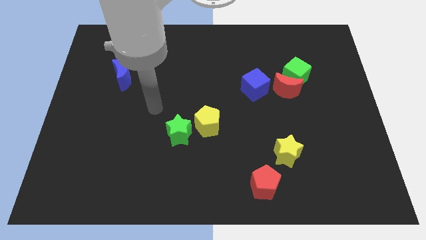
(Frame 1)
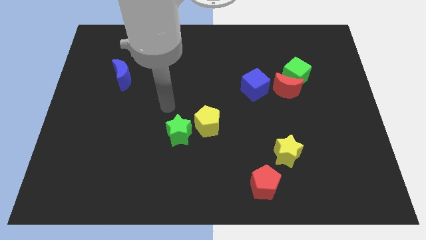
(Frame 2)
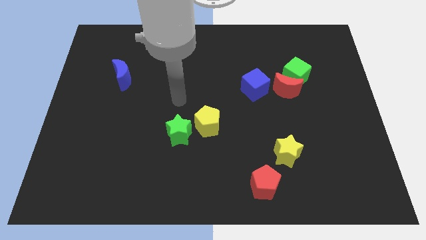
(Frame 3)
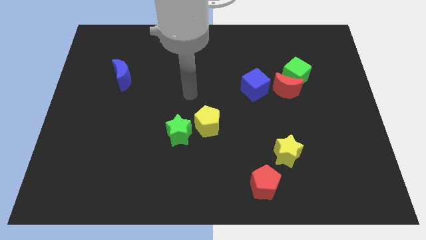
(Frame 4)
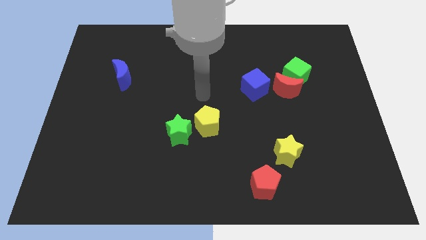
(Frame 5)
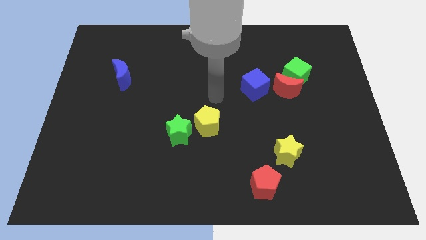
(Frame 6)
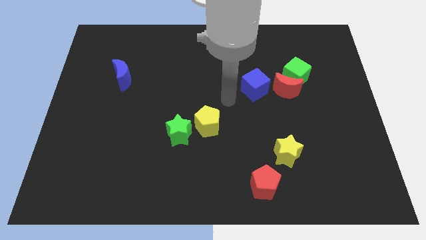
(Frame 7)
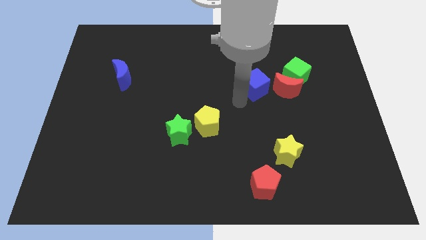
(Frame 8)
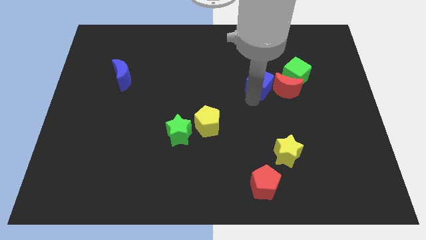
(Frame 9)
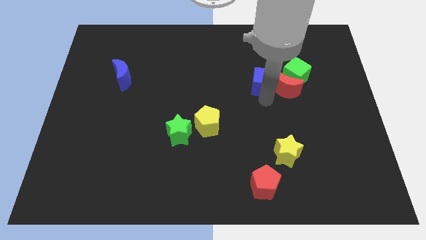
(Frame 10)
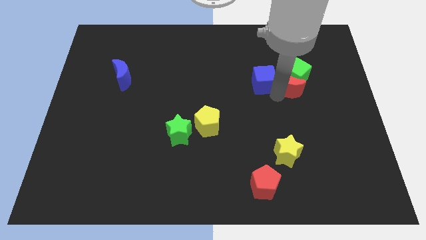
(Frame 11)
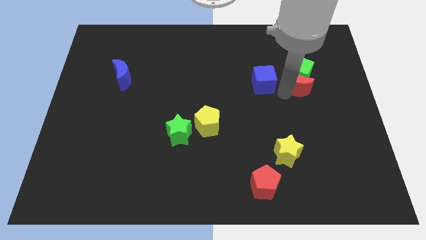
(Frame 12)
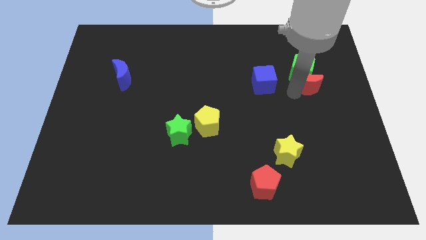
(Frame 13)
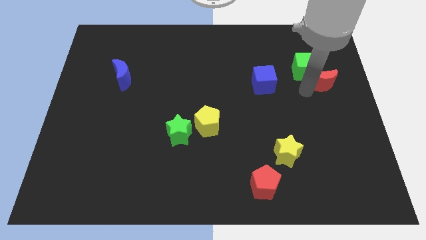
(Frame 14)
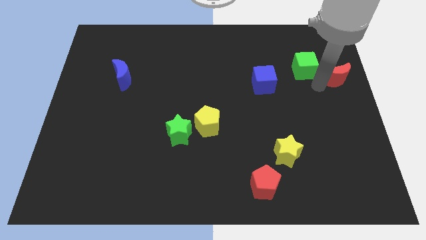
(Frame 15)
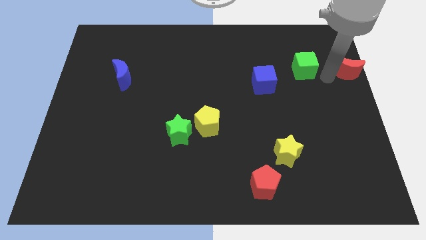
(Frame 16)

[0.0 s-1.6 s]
separate the green cube from the red moon

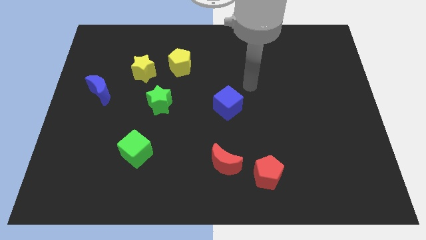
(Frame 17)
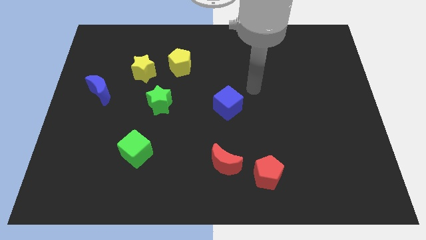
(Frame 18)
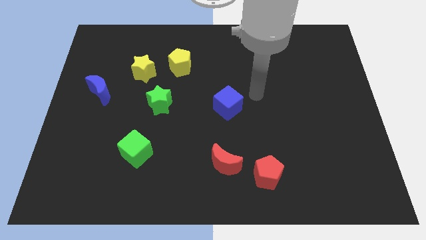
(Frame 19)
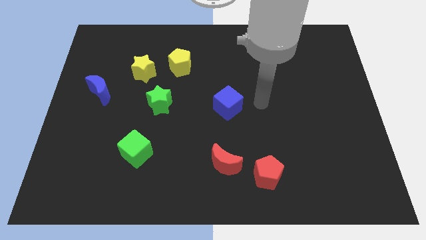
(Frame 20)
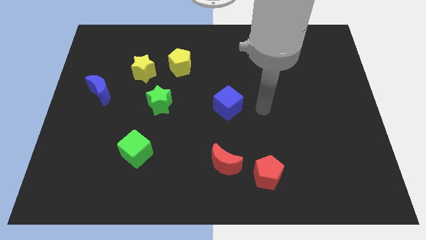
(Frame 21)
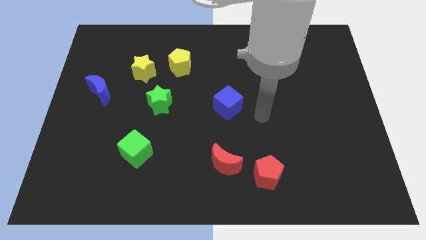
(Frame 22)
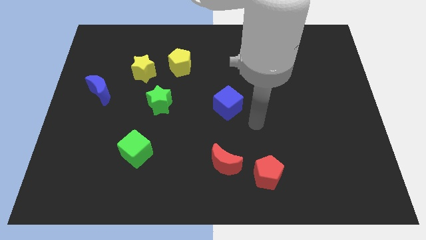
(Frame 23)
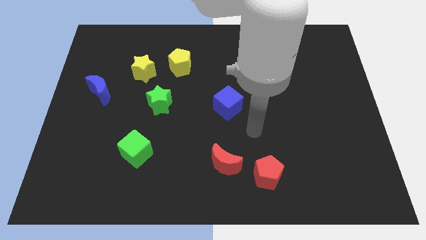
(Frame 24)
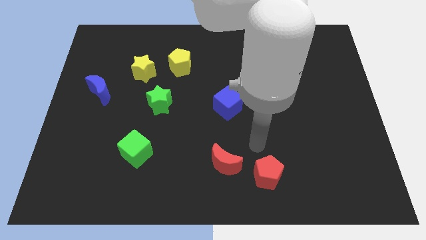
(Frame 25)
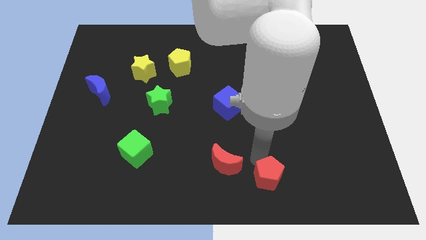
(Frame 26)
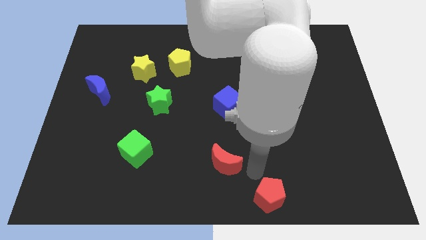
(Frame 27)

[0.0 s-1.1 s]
move the red moon away from the red pentagon

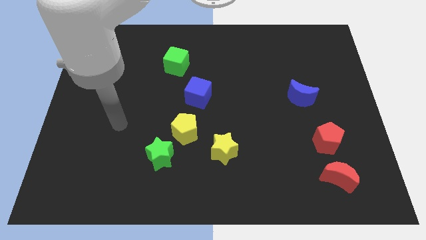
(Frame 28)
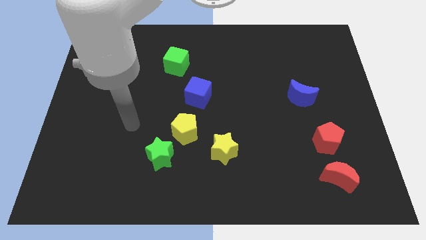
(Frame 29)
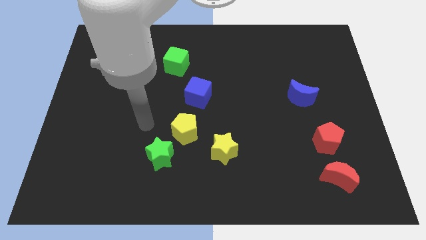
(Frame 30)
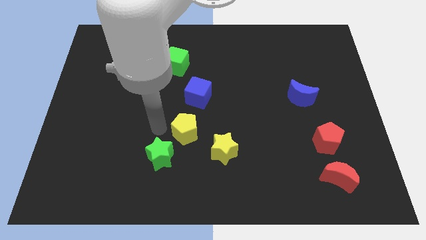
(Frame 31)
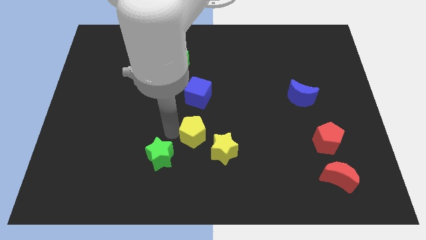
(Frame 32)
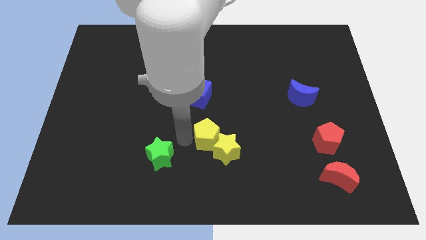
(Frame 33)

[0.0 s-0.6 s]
move the green star away from the yellow pentagon

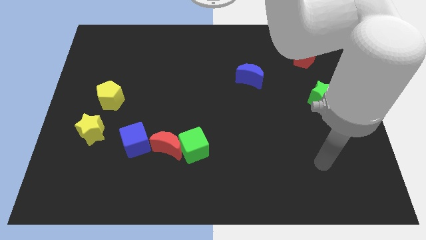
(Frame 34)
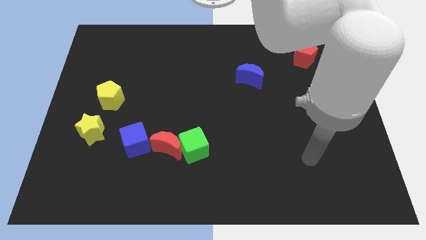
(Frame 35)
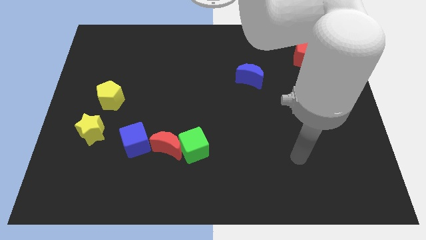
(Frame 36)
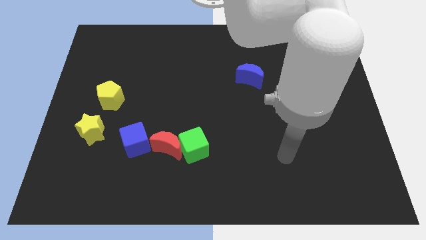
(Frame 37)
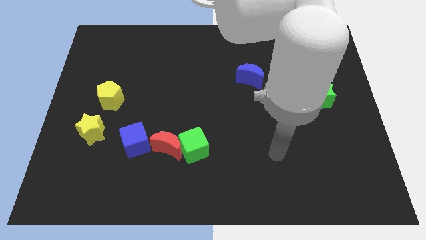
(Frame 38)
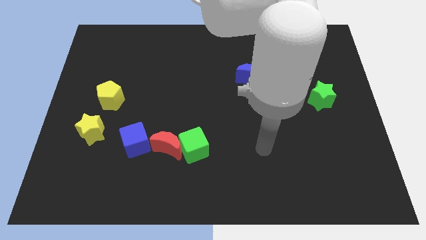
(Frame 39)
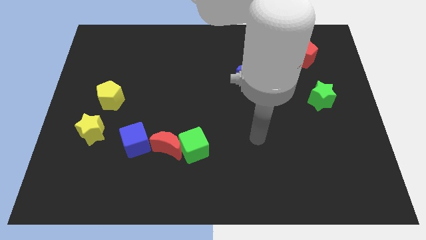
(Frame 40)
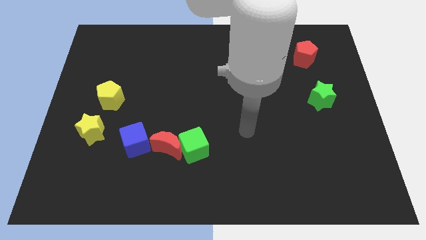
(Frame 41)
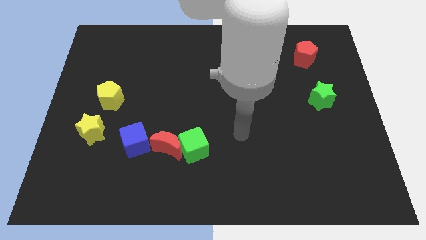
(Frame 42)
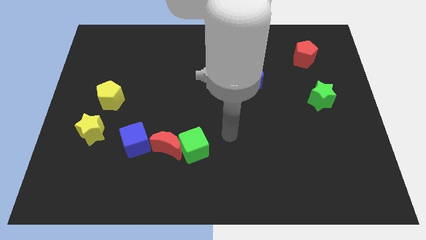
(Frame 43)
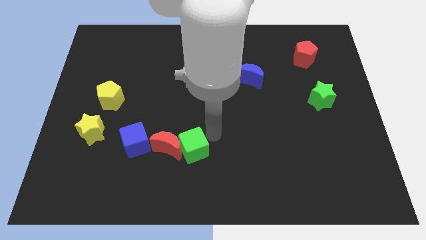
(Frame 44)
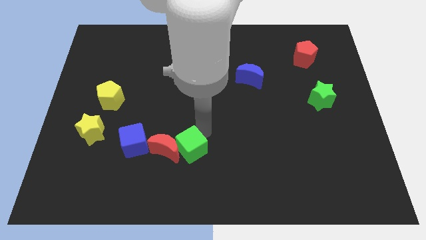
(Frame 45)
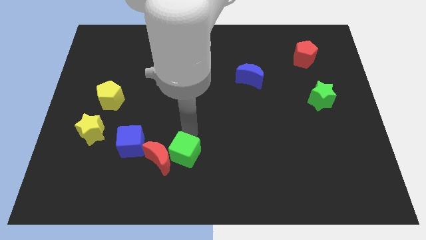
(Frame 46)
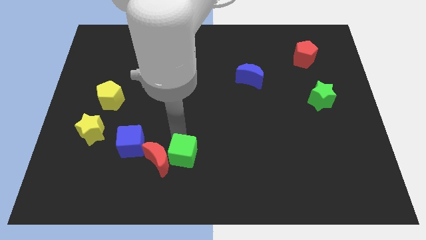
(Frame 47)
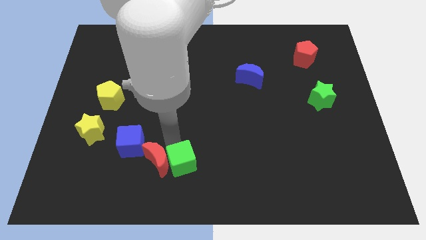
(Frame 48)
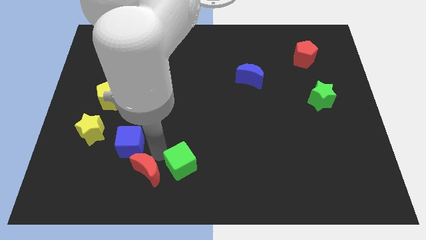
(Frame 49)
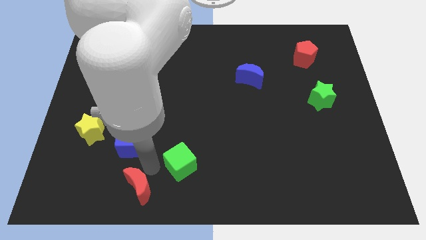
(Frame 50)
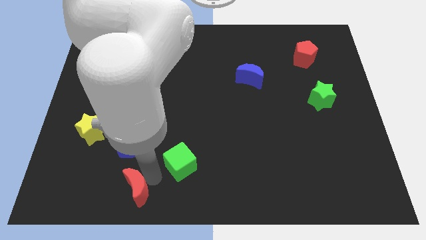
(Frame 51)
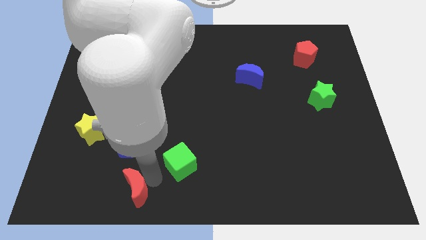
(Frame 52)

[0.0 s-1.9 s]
pull the green cube apart from the red moon

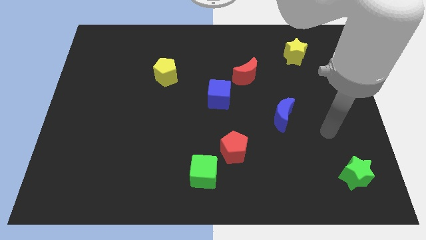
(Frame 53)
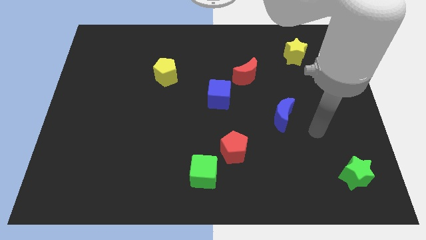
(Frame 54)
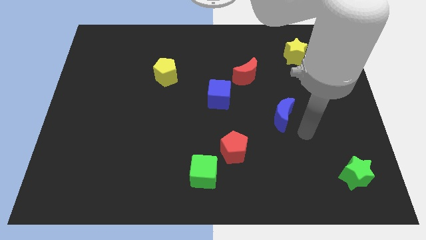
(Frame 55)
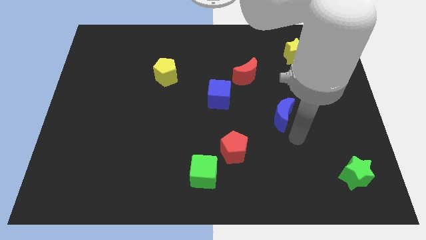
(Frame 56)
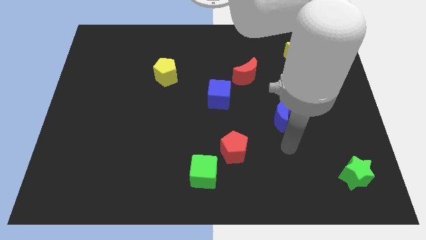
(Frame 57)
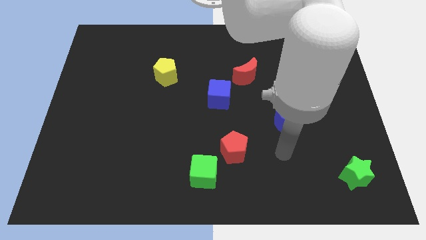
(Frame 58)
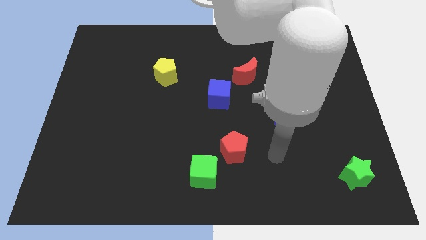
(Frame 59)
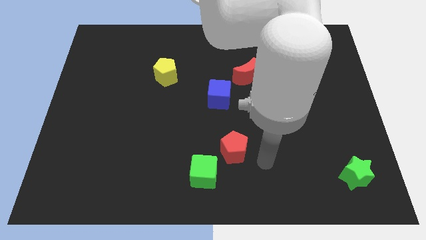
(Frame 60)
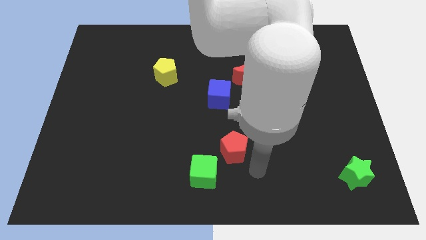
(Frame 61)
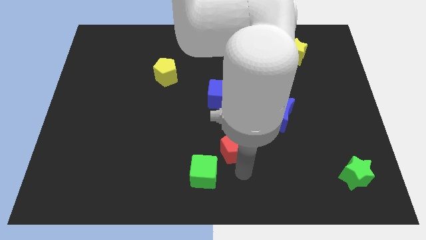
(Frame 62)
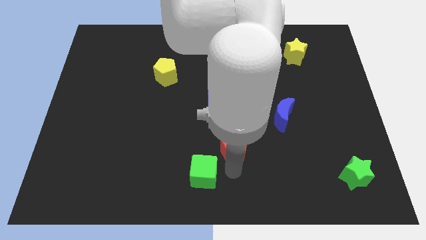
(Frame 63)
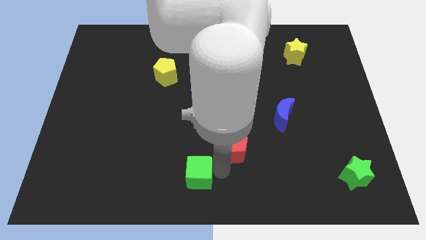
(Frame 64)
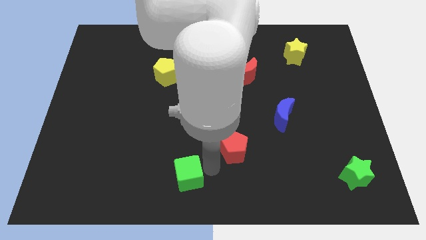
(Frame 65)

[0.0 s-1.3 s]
move the red pentagon away from the green cube

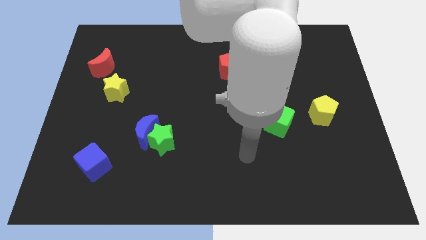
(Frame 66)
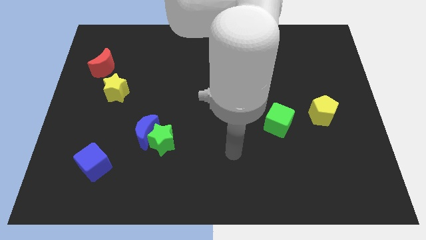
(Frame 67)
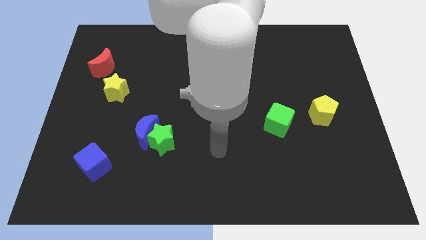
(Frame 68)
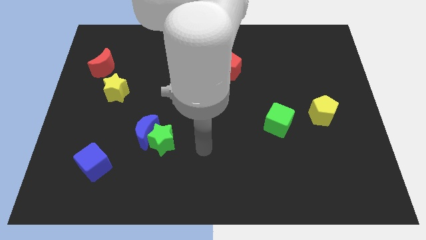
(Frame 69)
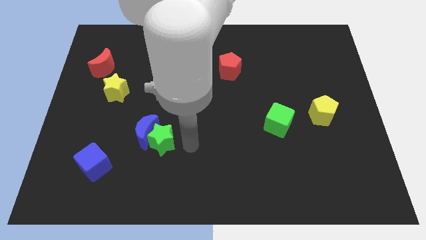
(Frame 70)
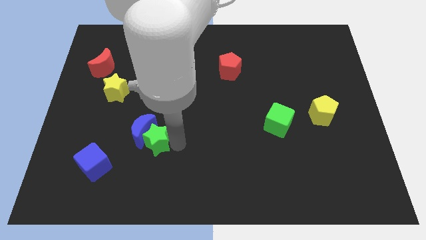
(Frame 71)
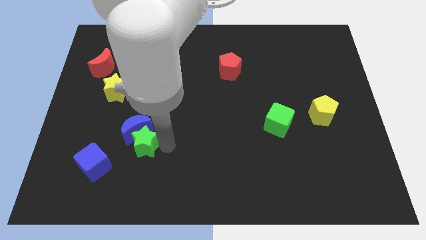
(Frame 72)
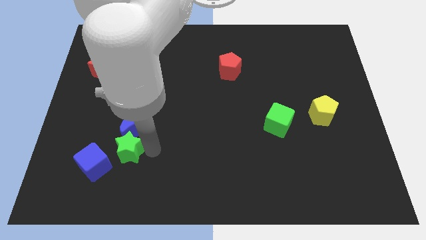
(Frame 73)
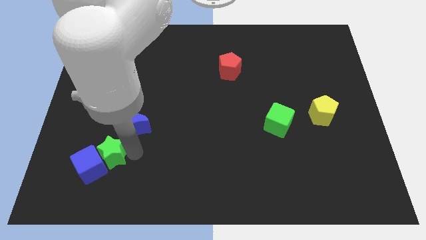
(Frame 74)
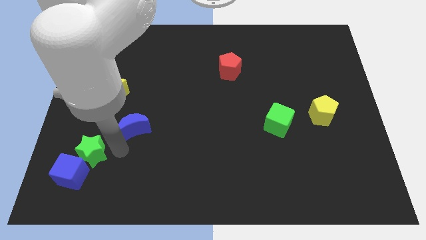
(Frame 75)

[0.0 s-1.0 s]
separate the blue moon from the green star

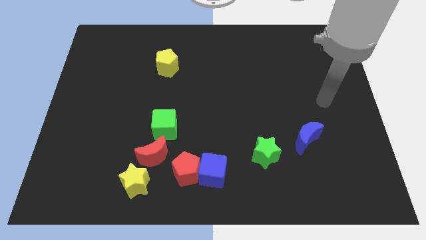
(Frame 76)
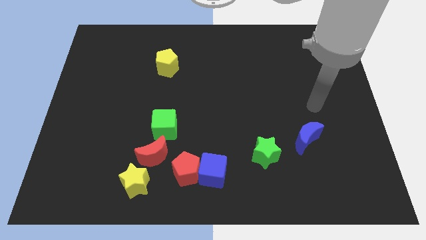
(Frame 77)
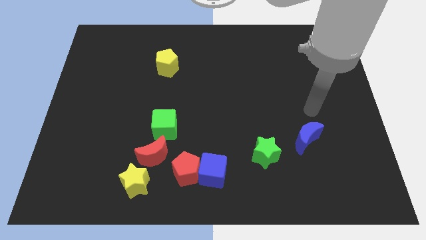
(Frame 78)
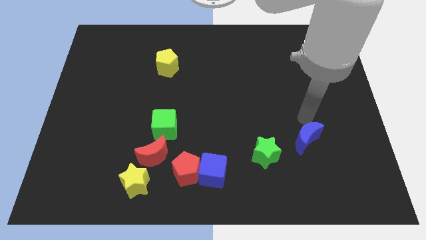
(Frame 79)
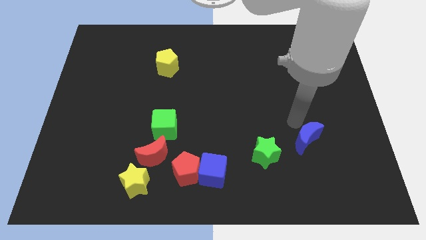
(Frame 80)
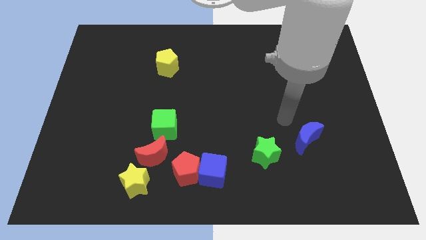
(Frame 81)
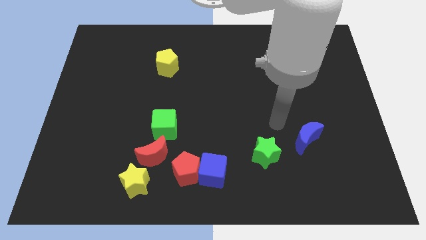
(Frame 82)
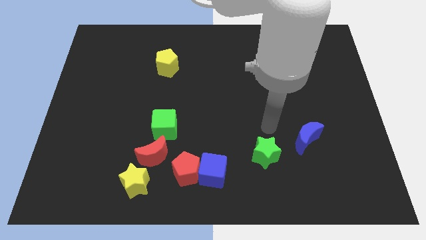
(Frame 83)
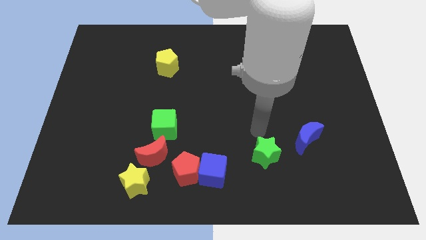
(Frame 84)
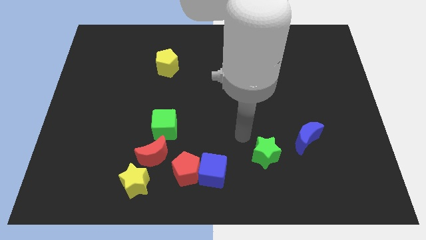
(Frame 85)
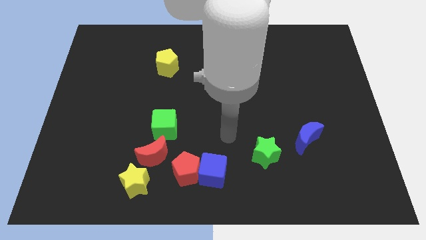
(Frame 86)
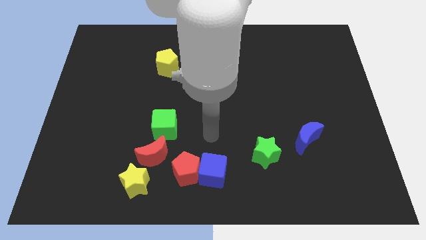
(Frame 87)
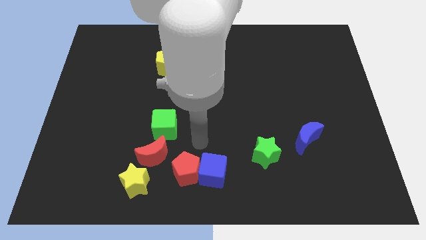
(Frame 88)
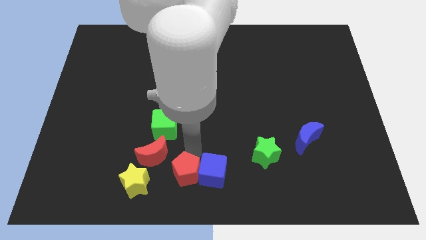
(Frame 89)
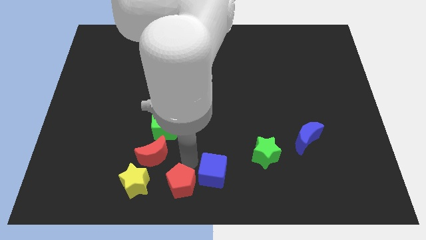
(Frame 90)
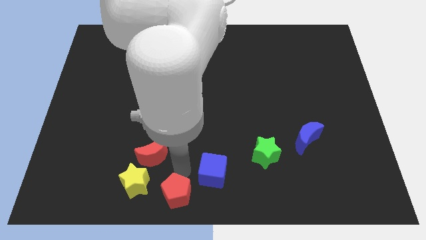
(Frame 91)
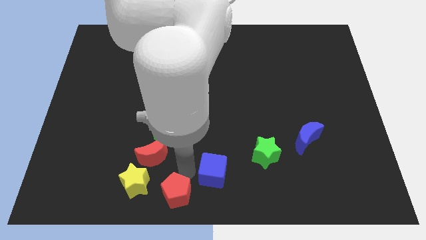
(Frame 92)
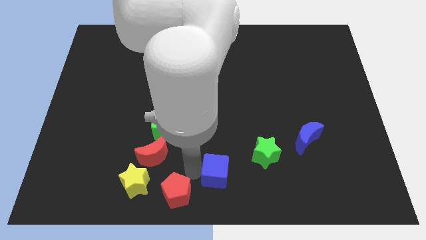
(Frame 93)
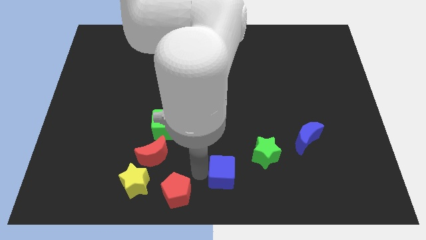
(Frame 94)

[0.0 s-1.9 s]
pull the blue cube apart from the red pentagon
